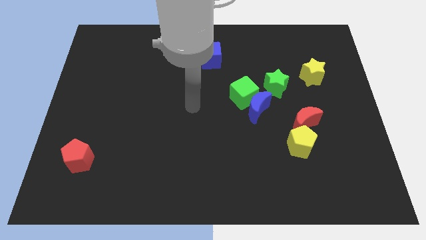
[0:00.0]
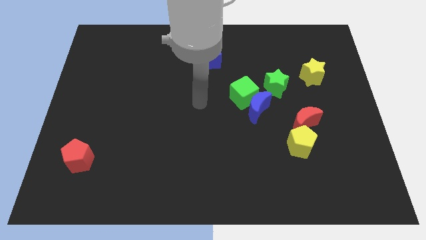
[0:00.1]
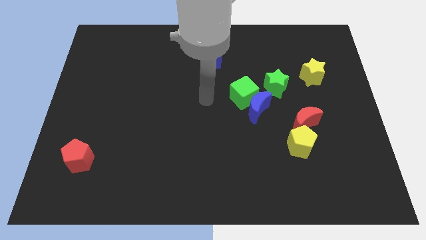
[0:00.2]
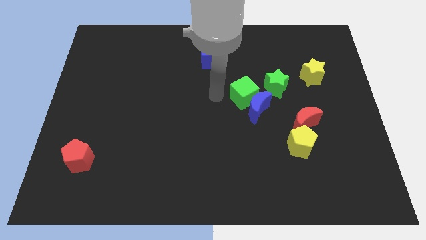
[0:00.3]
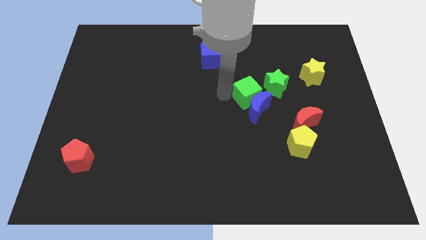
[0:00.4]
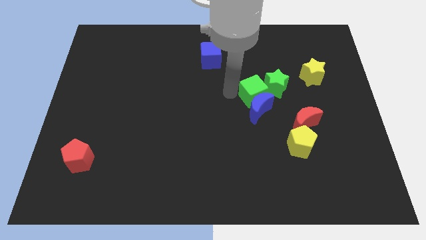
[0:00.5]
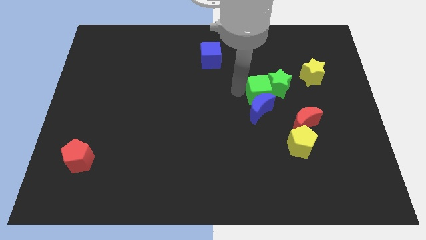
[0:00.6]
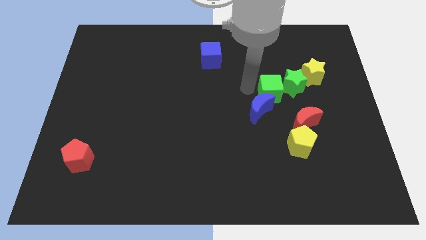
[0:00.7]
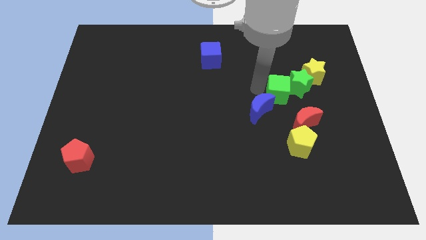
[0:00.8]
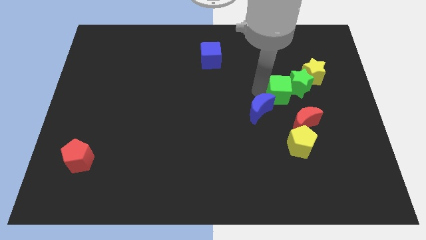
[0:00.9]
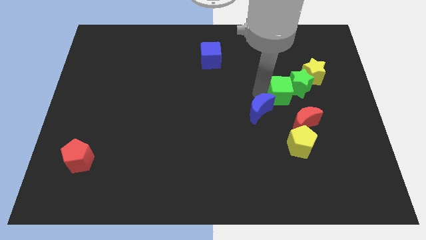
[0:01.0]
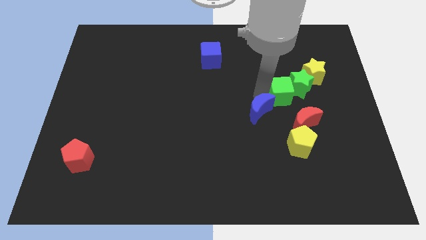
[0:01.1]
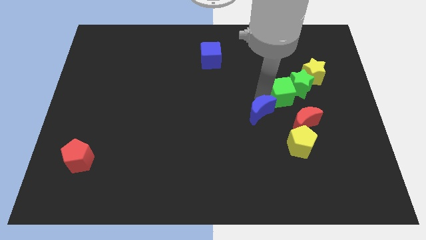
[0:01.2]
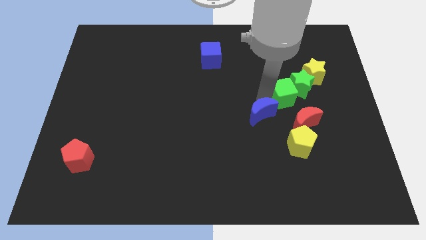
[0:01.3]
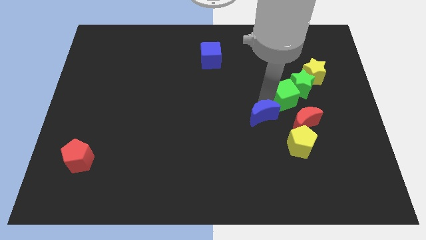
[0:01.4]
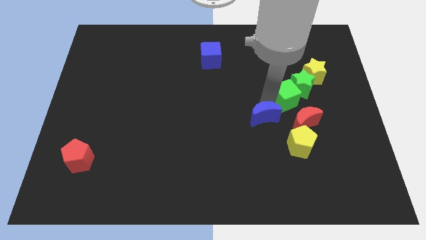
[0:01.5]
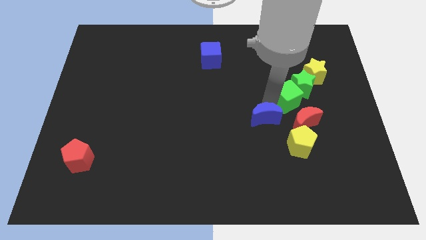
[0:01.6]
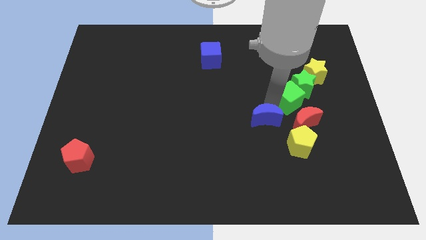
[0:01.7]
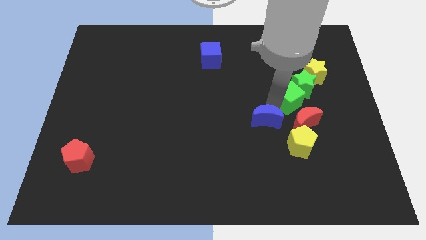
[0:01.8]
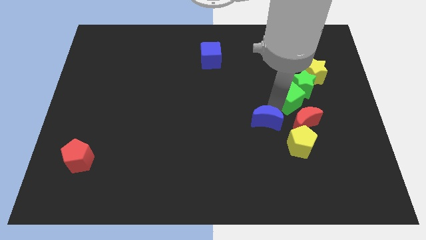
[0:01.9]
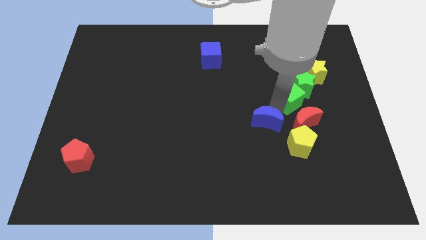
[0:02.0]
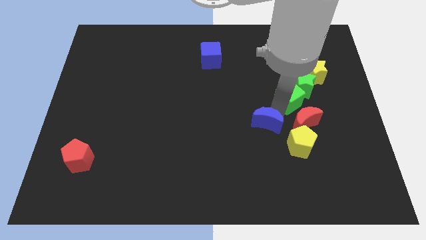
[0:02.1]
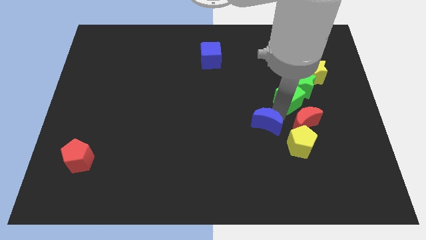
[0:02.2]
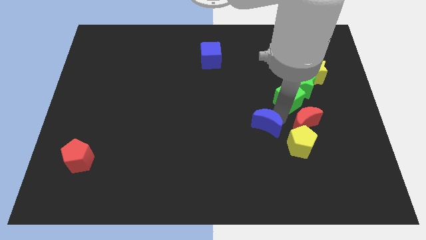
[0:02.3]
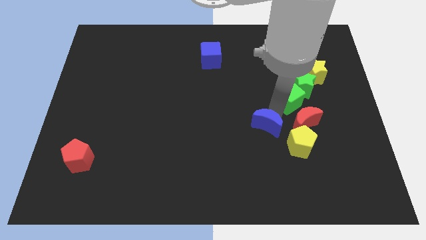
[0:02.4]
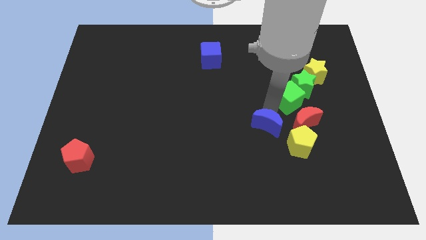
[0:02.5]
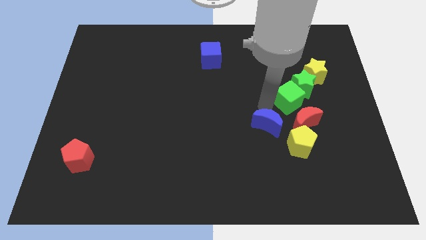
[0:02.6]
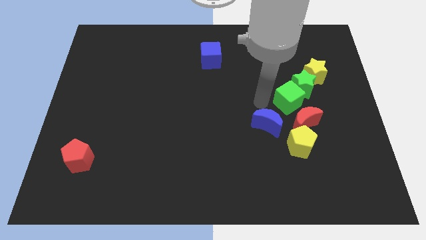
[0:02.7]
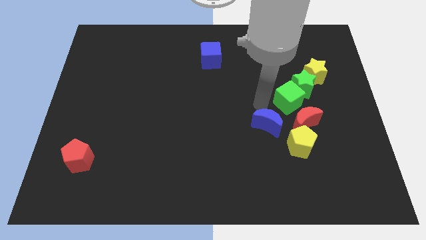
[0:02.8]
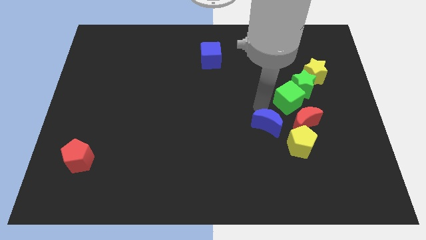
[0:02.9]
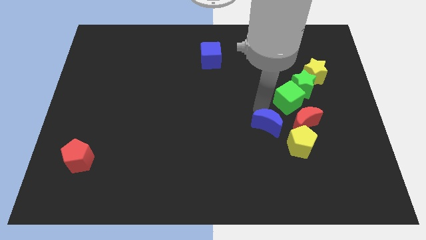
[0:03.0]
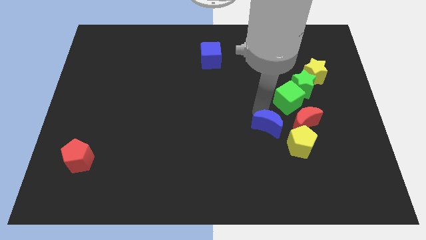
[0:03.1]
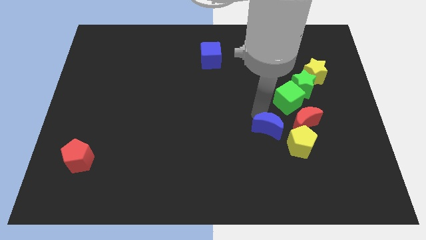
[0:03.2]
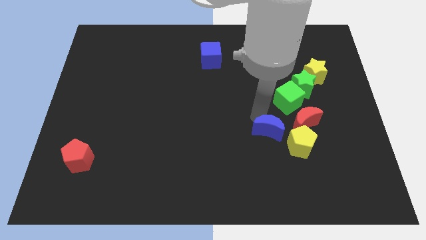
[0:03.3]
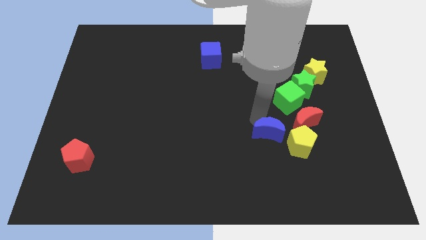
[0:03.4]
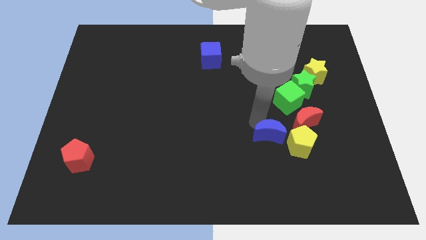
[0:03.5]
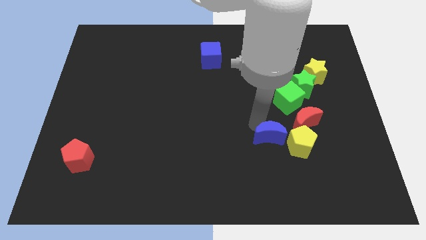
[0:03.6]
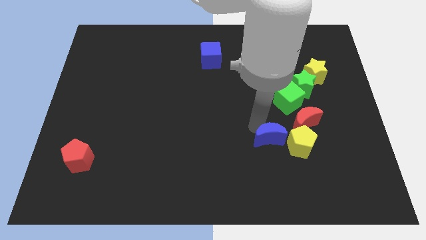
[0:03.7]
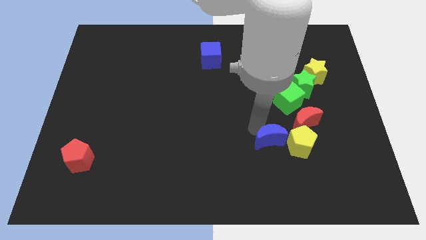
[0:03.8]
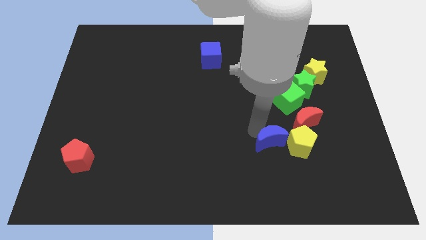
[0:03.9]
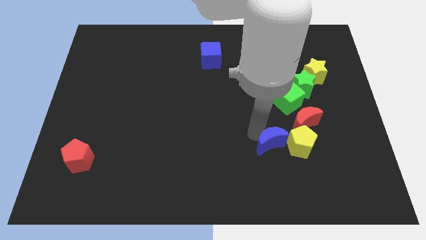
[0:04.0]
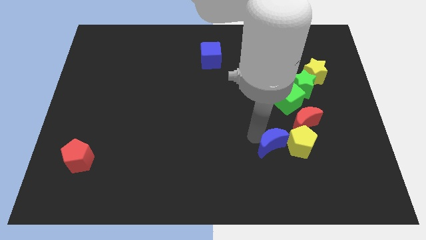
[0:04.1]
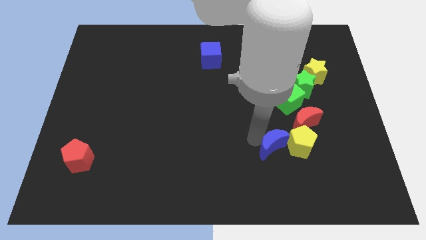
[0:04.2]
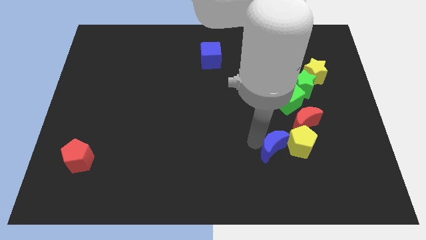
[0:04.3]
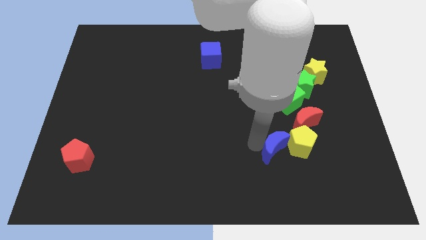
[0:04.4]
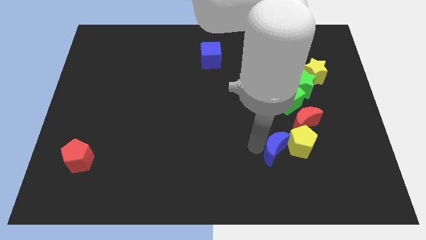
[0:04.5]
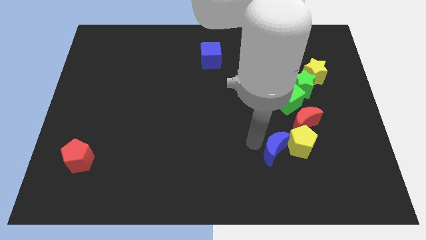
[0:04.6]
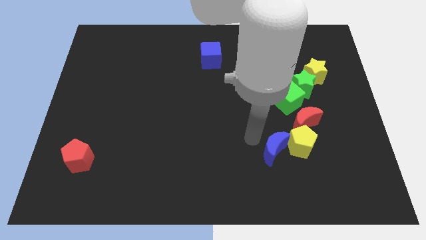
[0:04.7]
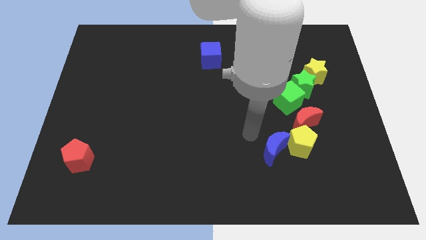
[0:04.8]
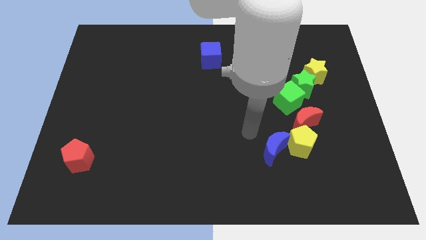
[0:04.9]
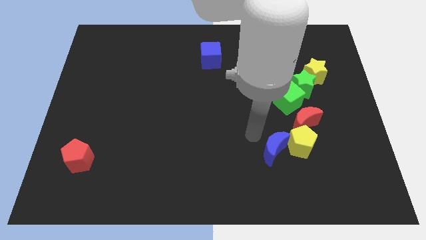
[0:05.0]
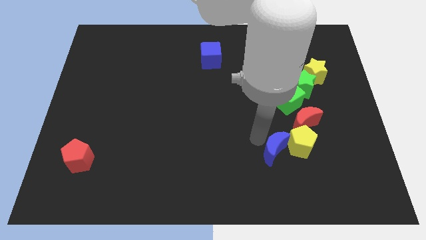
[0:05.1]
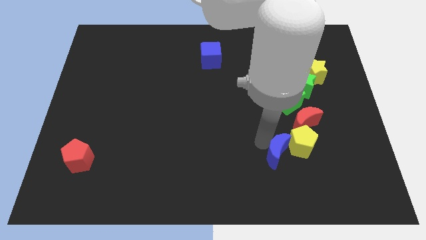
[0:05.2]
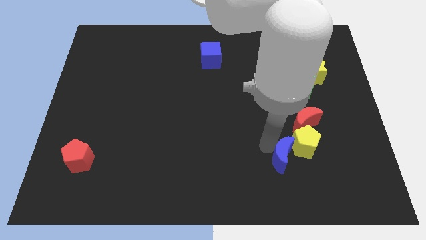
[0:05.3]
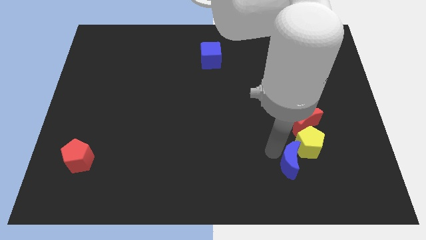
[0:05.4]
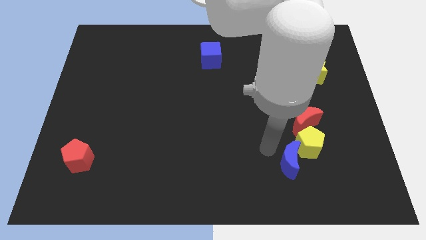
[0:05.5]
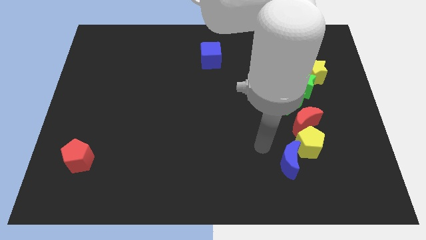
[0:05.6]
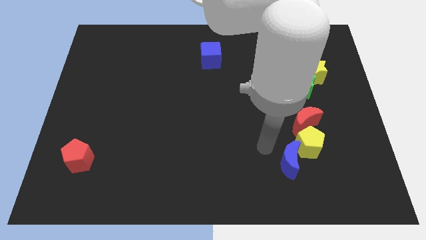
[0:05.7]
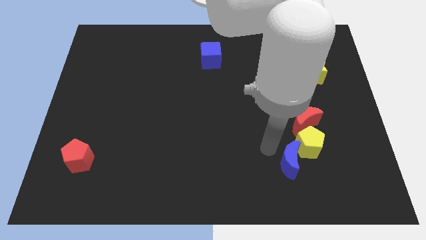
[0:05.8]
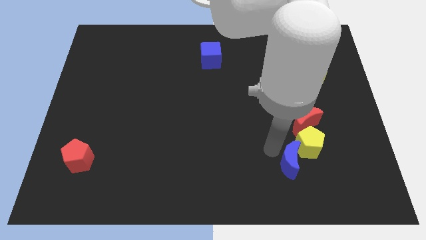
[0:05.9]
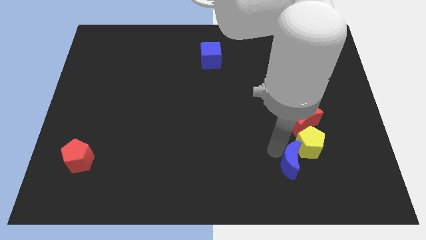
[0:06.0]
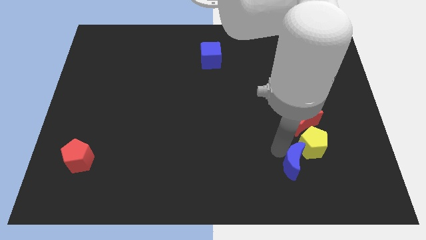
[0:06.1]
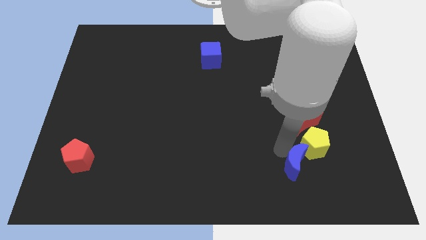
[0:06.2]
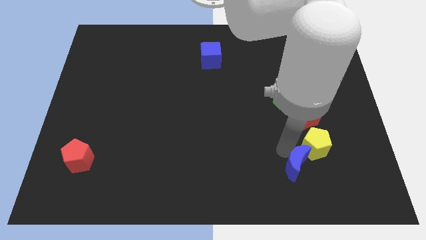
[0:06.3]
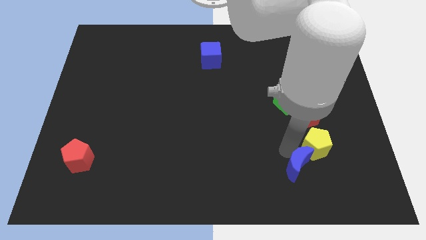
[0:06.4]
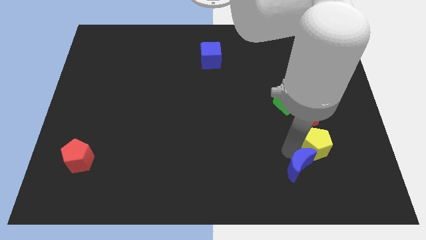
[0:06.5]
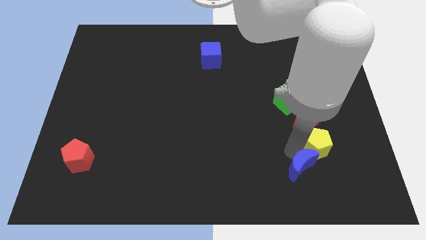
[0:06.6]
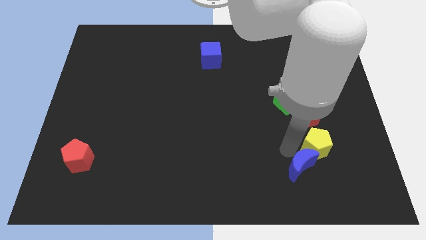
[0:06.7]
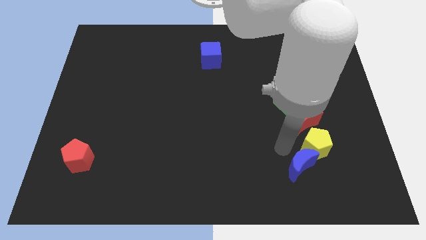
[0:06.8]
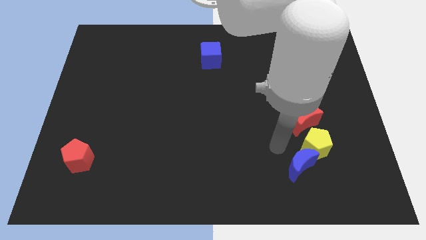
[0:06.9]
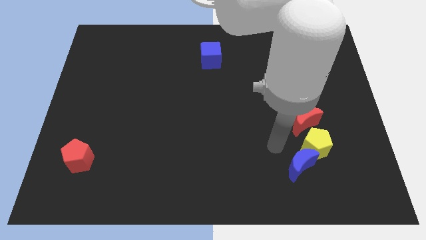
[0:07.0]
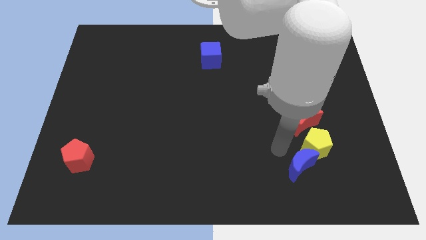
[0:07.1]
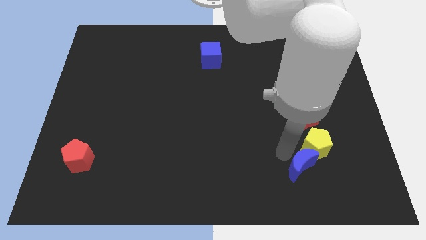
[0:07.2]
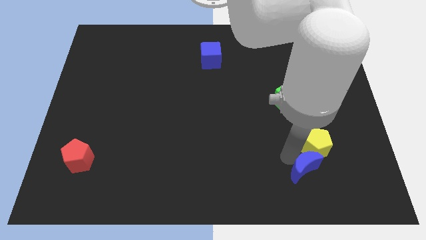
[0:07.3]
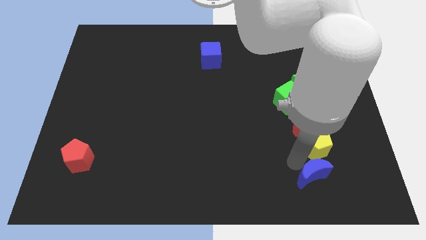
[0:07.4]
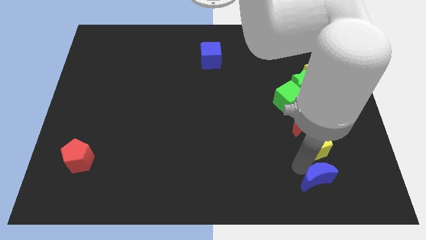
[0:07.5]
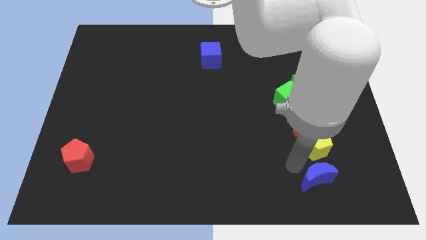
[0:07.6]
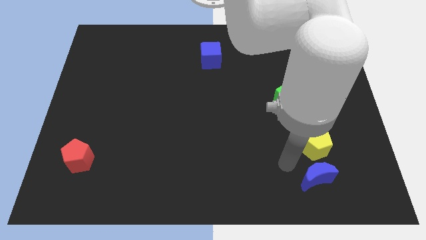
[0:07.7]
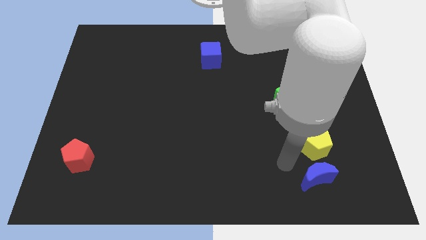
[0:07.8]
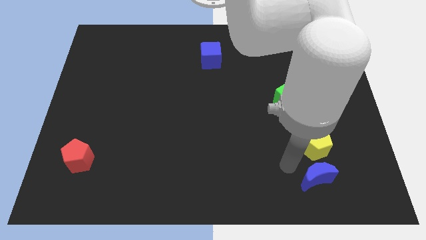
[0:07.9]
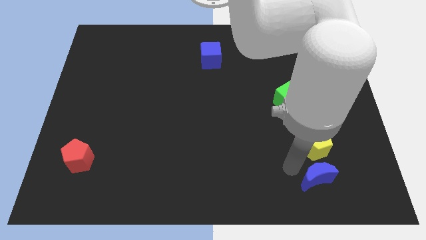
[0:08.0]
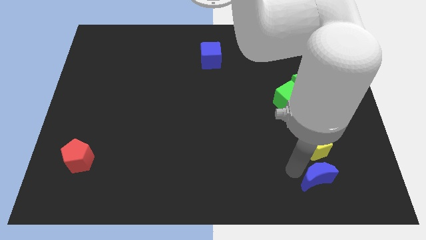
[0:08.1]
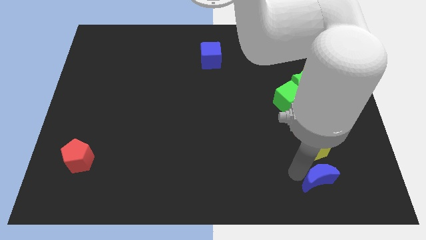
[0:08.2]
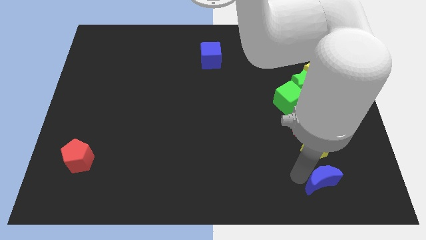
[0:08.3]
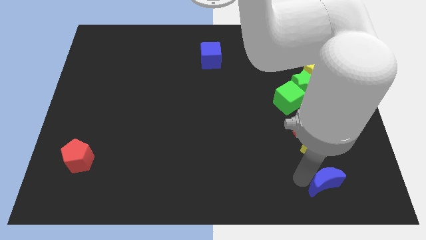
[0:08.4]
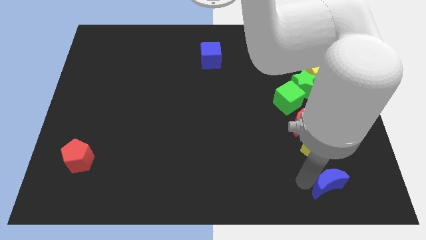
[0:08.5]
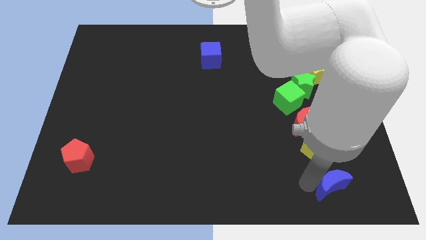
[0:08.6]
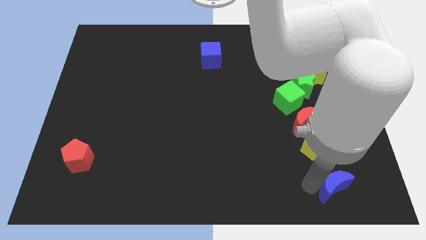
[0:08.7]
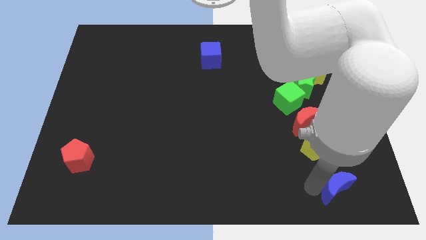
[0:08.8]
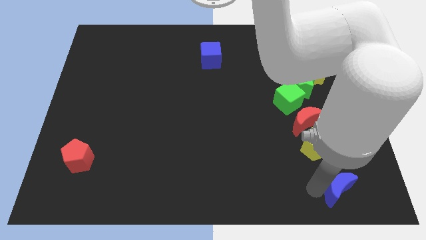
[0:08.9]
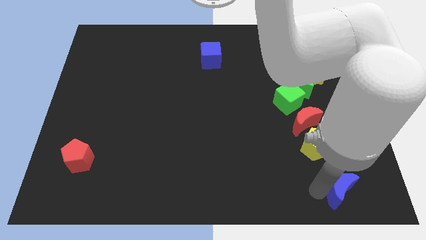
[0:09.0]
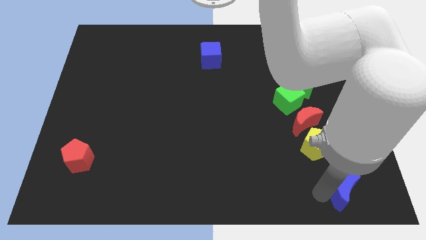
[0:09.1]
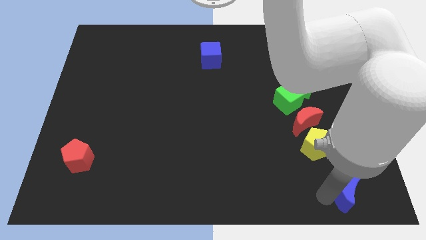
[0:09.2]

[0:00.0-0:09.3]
move the blue moon to the bottom right corner
